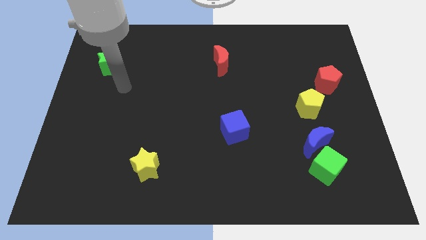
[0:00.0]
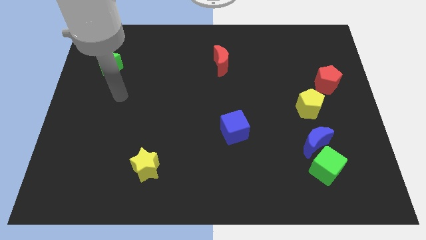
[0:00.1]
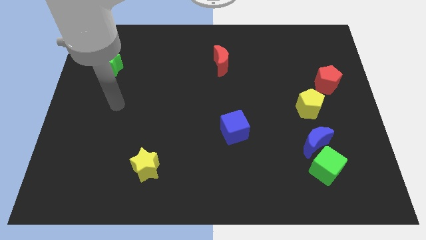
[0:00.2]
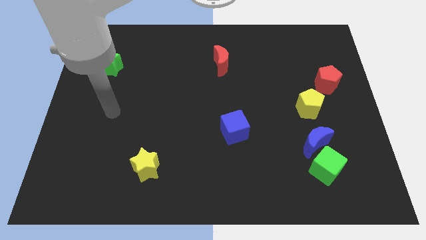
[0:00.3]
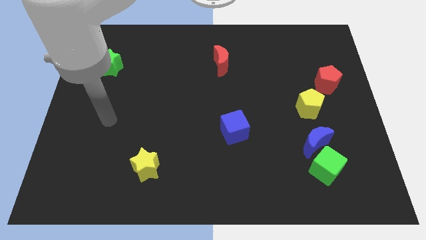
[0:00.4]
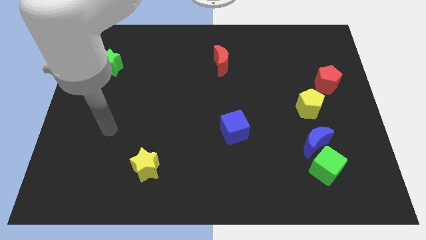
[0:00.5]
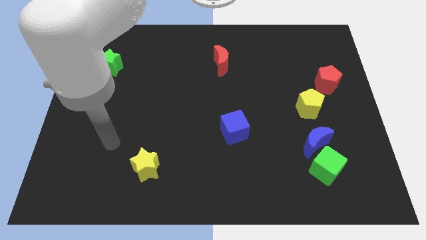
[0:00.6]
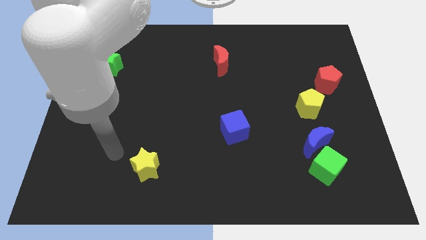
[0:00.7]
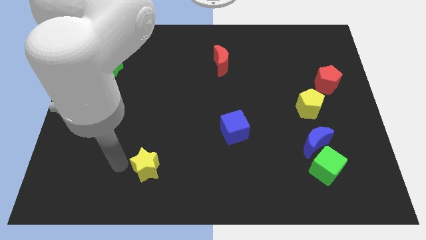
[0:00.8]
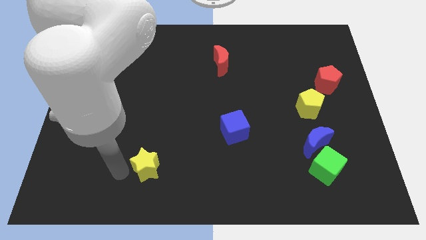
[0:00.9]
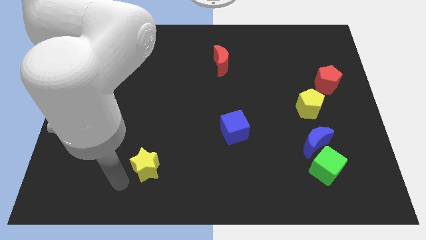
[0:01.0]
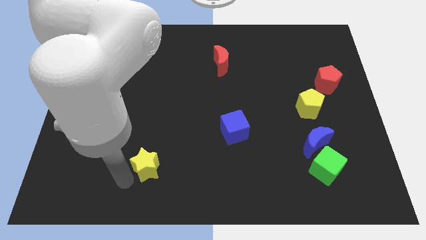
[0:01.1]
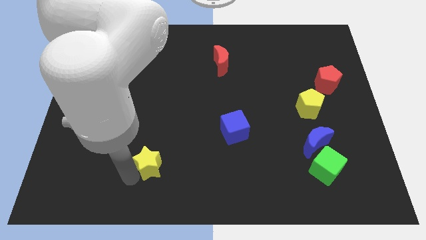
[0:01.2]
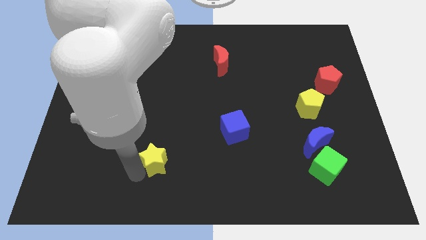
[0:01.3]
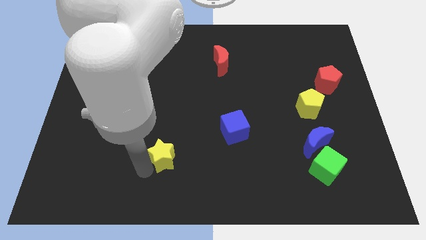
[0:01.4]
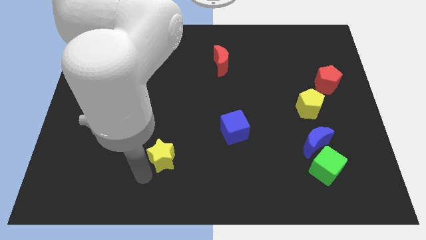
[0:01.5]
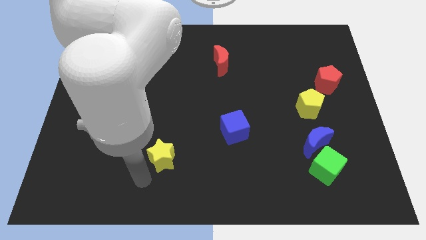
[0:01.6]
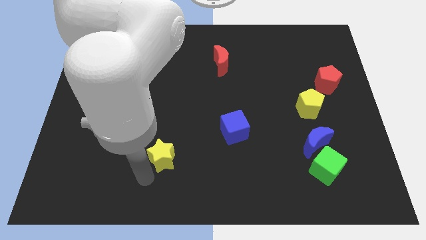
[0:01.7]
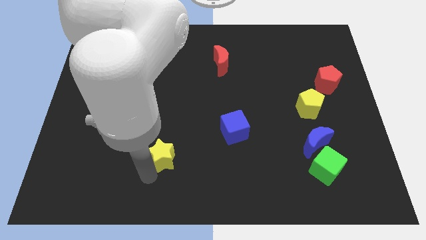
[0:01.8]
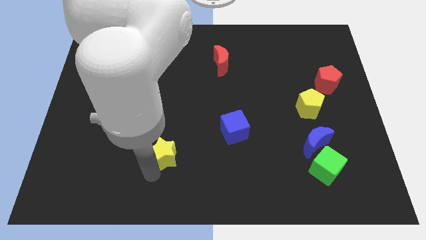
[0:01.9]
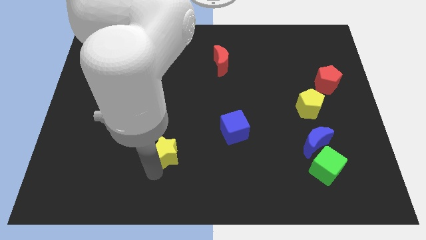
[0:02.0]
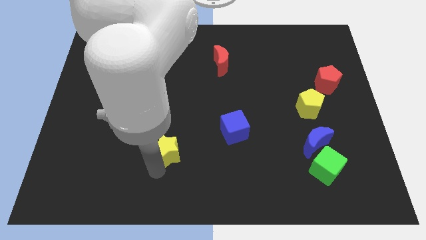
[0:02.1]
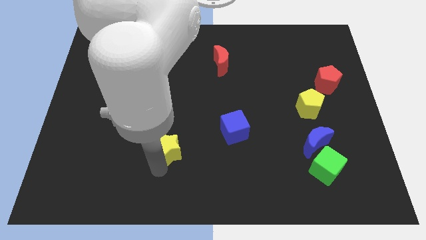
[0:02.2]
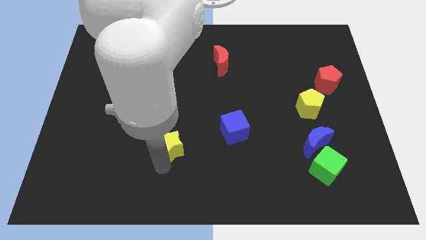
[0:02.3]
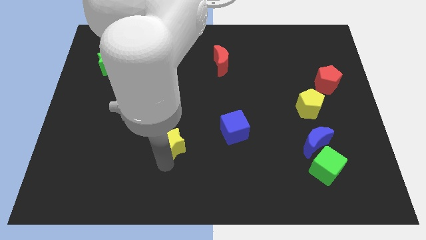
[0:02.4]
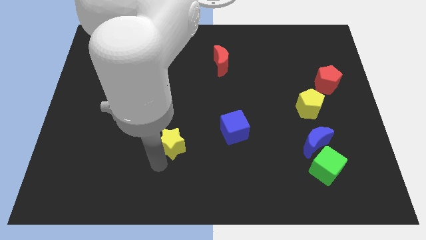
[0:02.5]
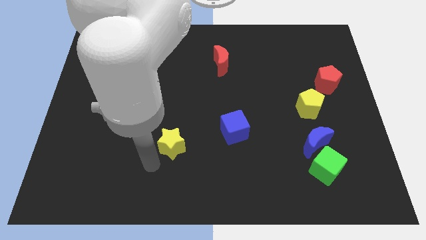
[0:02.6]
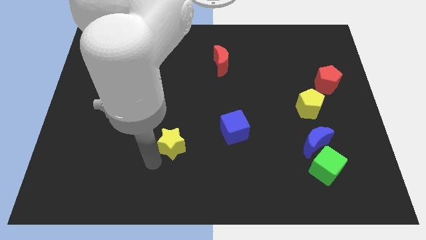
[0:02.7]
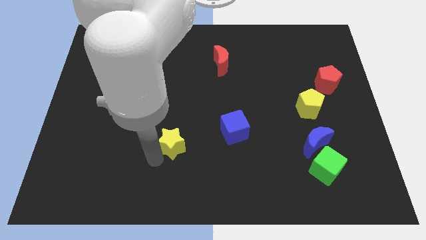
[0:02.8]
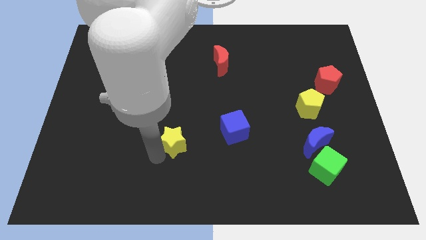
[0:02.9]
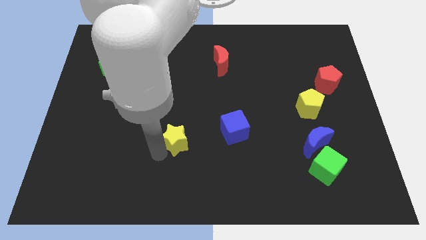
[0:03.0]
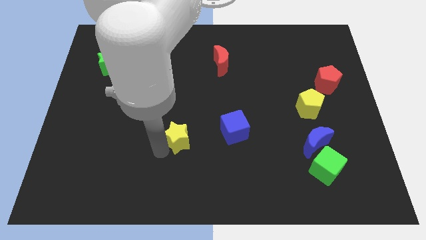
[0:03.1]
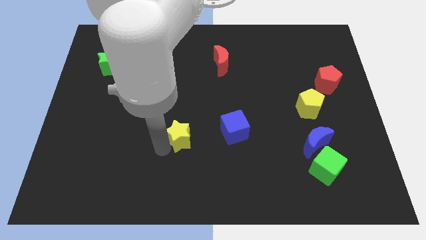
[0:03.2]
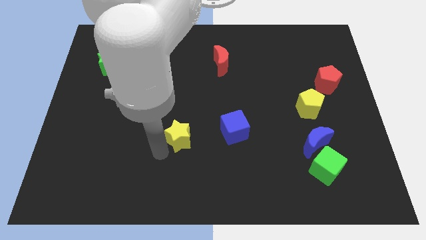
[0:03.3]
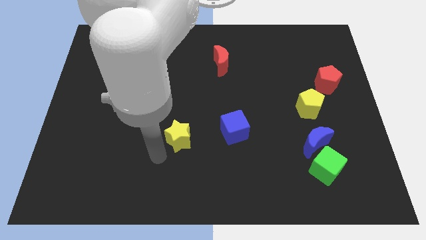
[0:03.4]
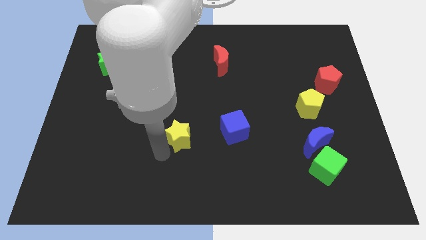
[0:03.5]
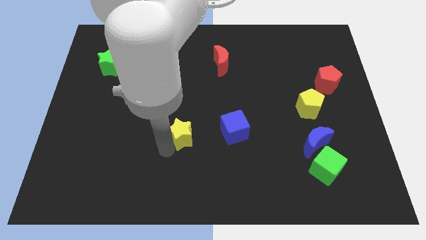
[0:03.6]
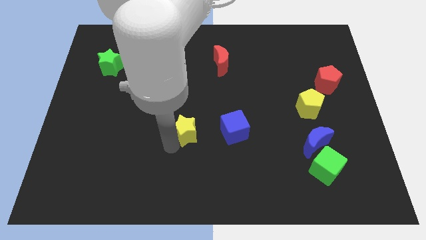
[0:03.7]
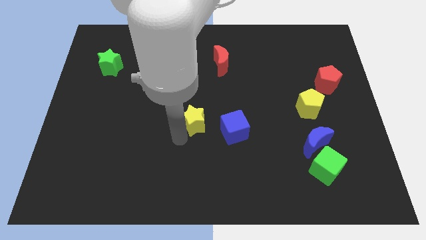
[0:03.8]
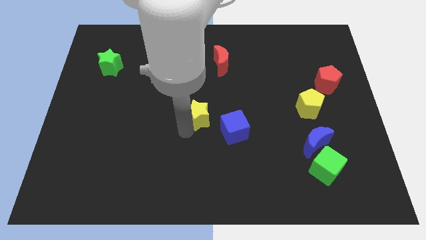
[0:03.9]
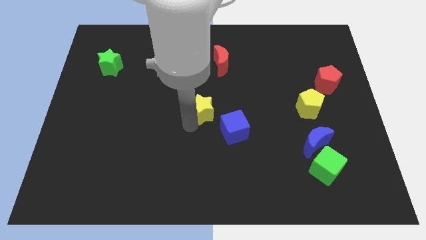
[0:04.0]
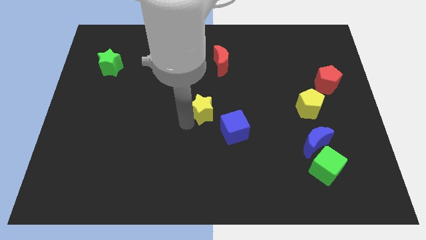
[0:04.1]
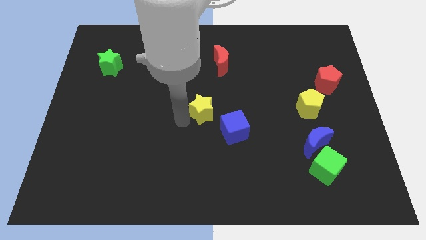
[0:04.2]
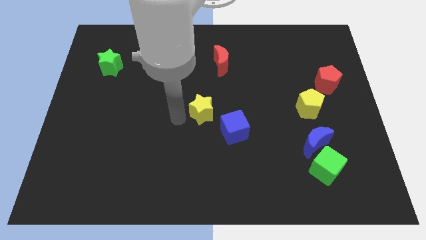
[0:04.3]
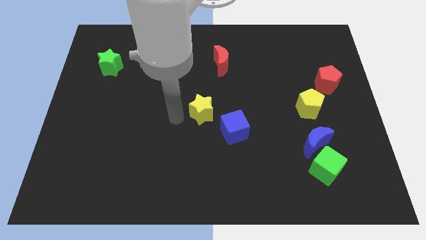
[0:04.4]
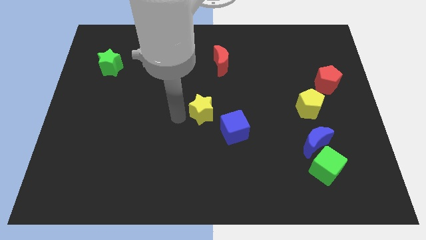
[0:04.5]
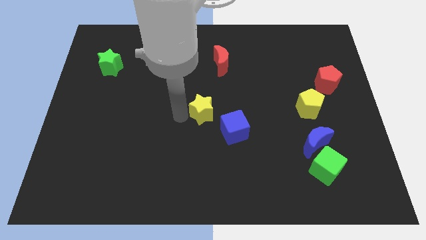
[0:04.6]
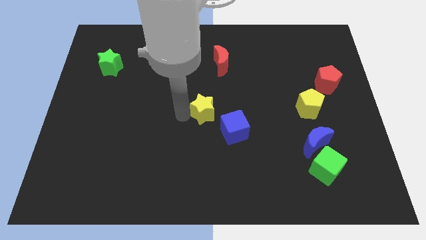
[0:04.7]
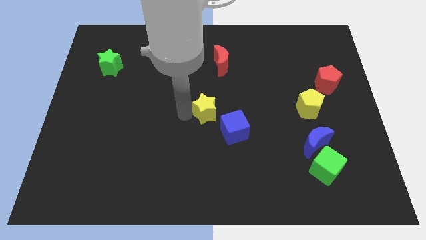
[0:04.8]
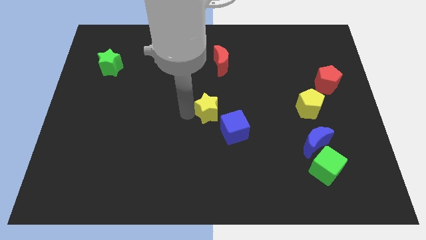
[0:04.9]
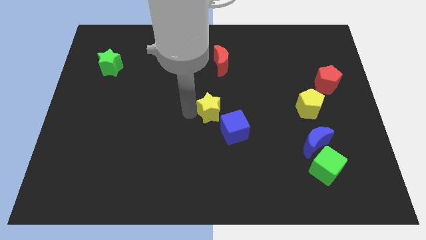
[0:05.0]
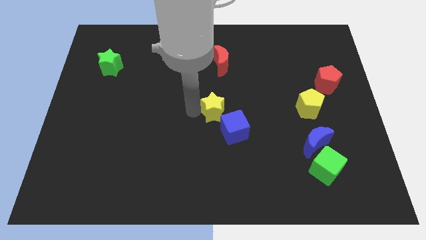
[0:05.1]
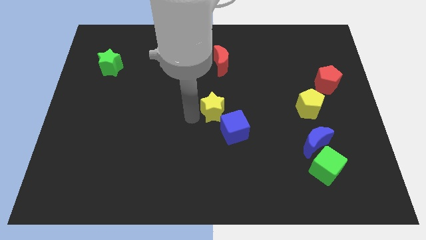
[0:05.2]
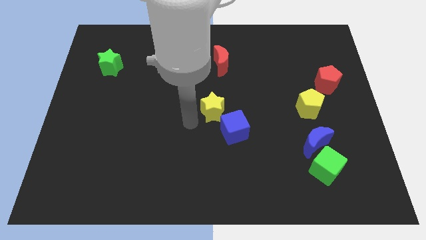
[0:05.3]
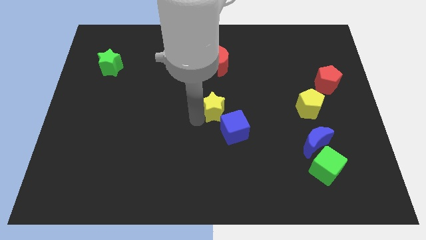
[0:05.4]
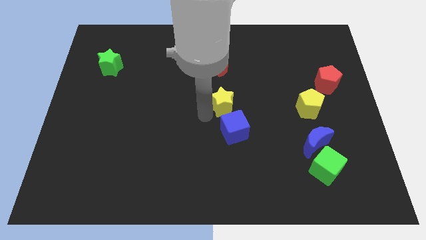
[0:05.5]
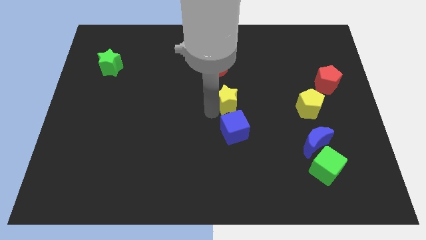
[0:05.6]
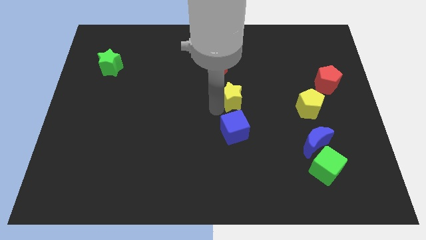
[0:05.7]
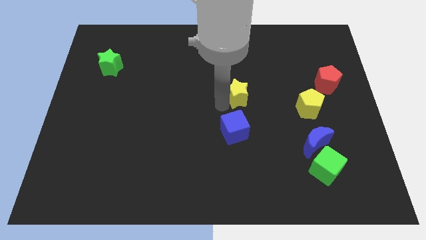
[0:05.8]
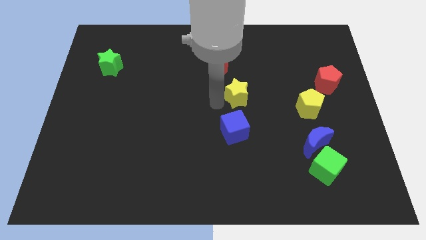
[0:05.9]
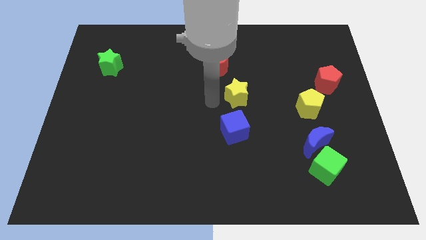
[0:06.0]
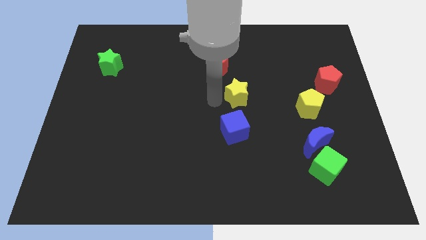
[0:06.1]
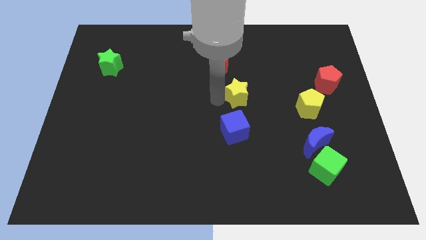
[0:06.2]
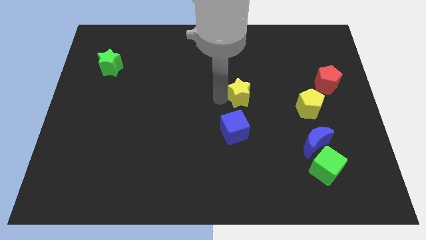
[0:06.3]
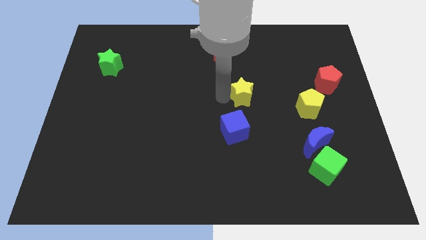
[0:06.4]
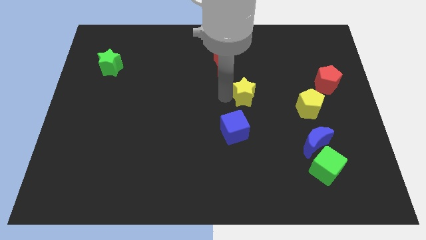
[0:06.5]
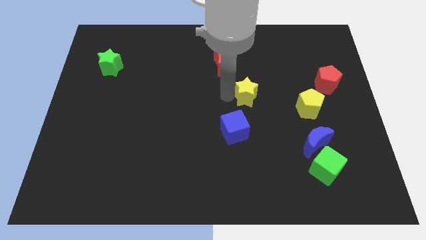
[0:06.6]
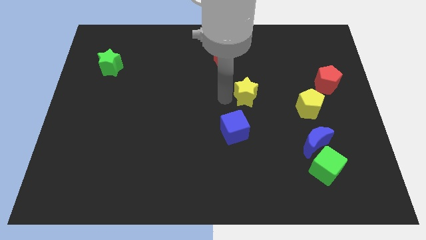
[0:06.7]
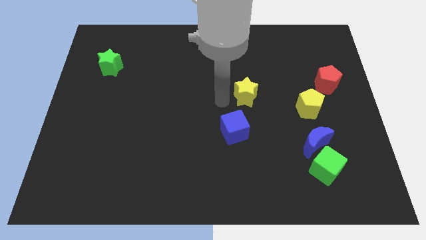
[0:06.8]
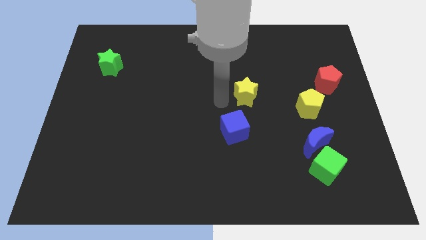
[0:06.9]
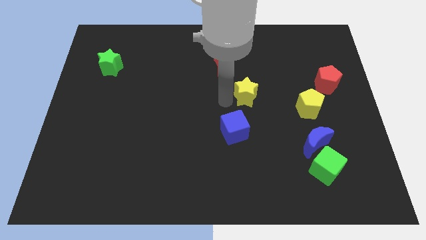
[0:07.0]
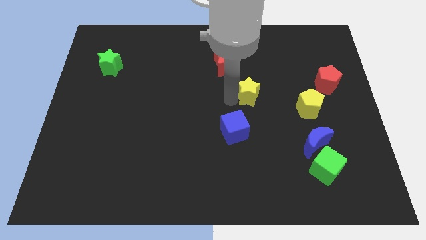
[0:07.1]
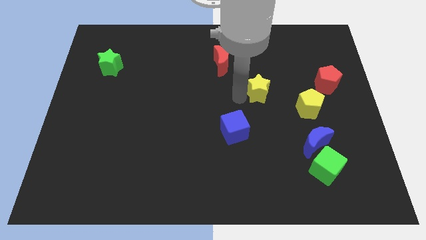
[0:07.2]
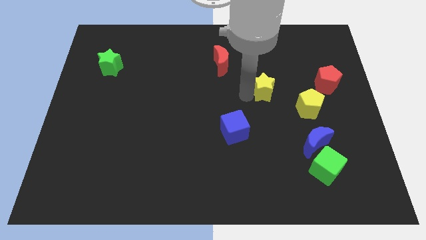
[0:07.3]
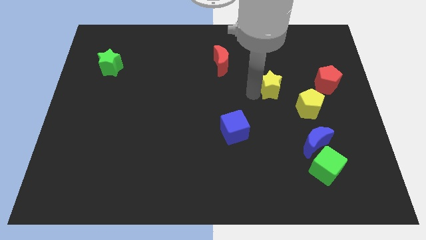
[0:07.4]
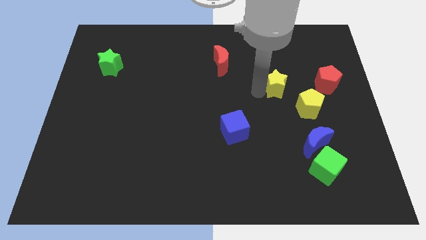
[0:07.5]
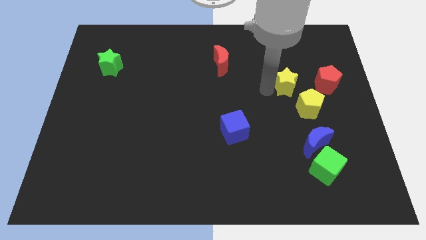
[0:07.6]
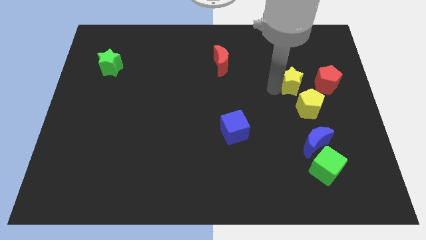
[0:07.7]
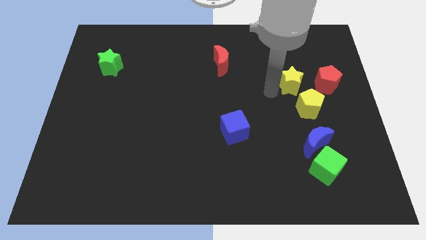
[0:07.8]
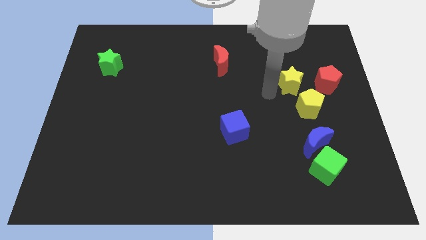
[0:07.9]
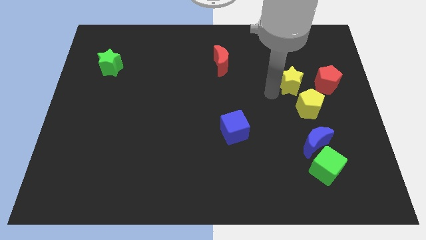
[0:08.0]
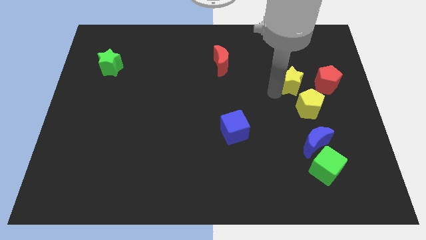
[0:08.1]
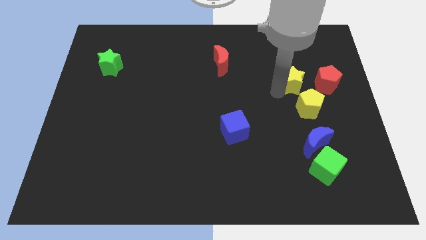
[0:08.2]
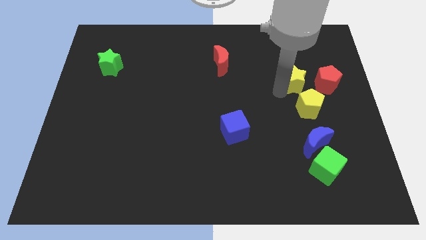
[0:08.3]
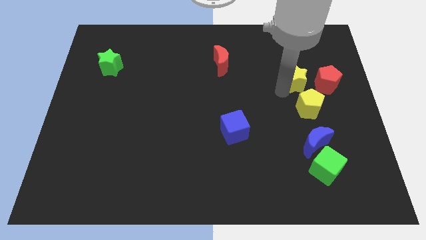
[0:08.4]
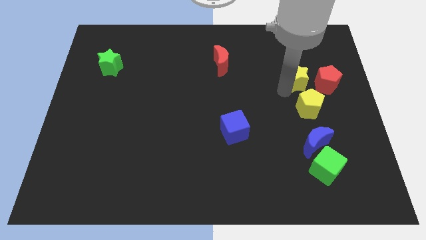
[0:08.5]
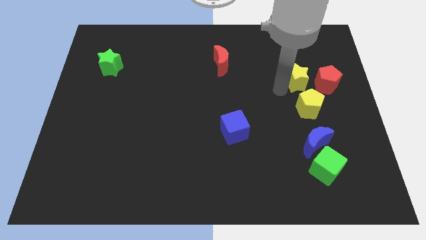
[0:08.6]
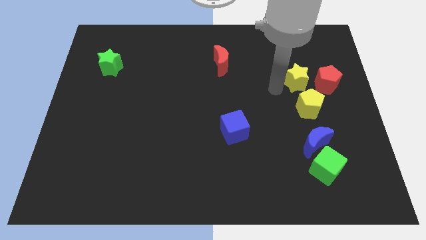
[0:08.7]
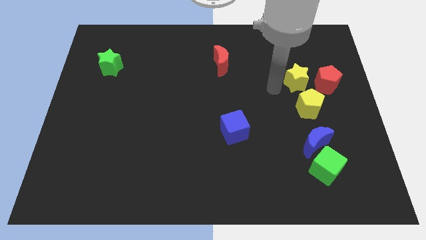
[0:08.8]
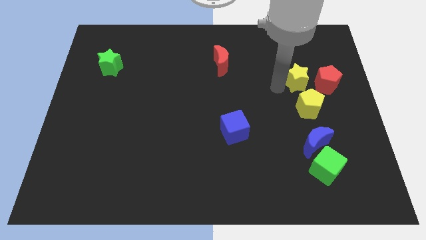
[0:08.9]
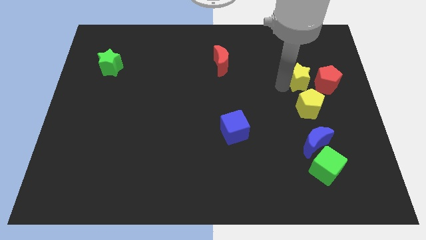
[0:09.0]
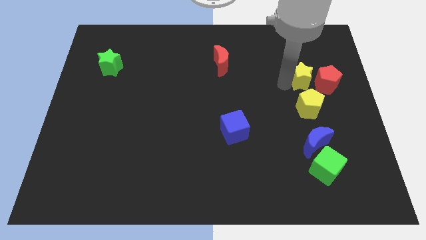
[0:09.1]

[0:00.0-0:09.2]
put the yellow star next to the red pentagon
